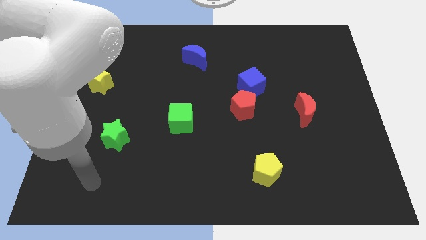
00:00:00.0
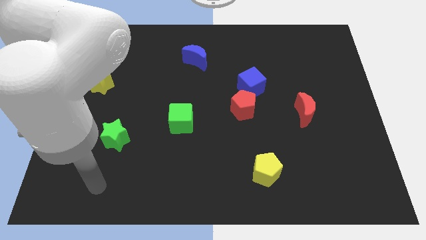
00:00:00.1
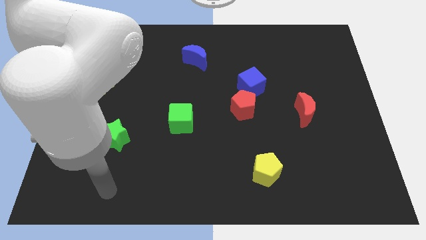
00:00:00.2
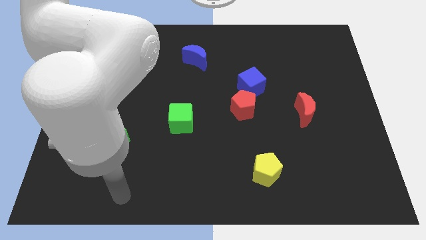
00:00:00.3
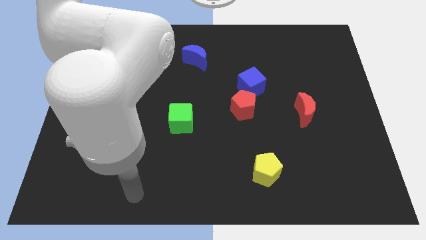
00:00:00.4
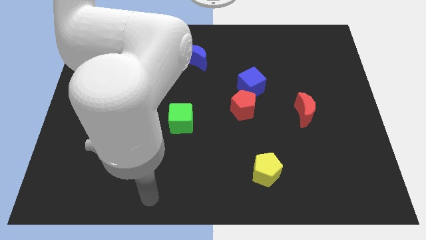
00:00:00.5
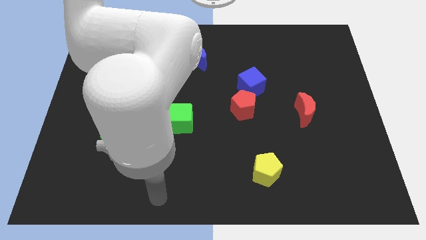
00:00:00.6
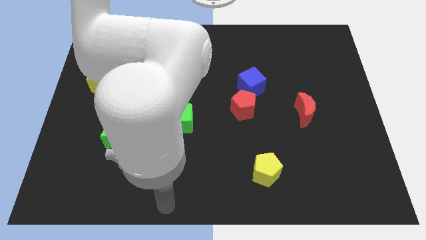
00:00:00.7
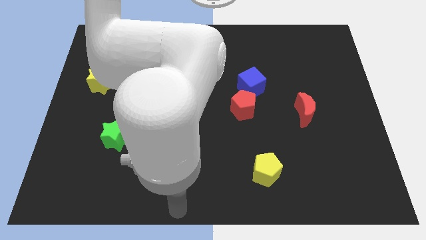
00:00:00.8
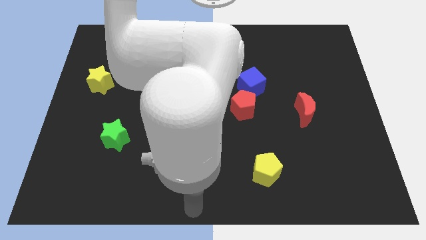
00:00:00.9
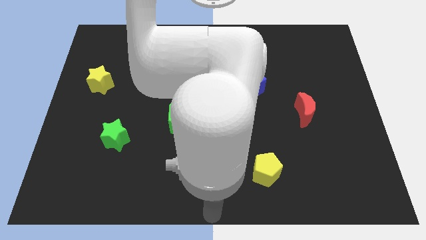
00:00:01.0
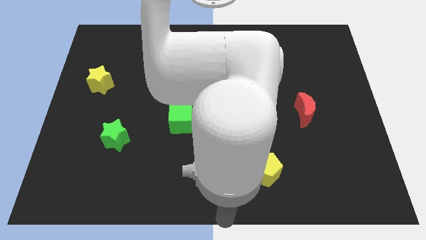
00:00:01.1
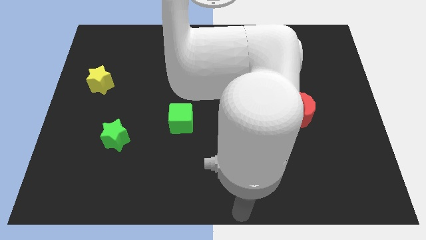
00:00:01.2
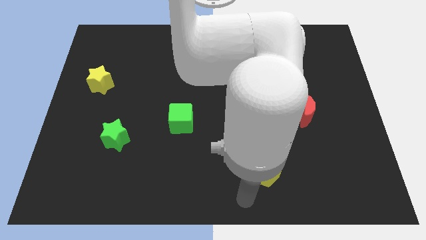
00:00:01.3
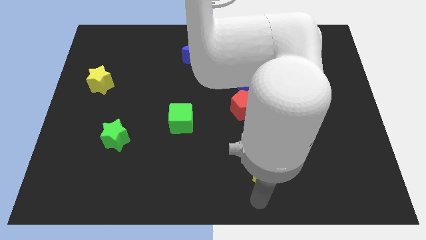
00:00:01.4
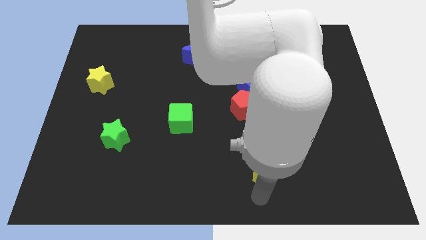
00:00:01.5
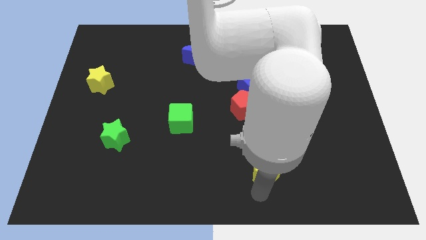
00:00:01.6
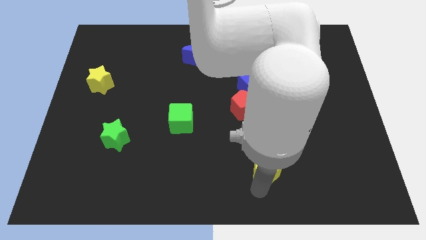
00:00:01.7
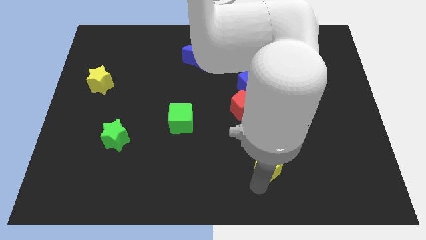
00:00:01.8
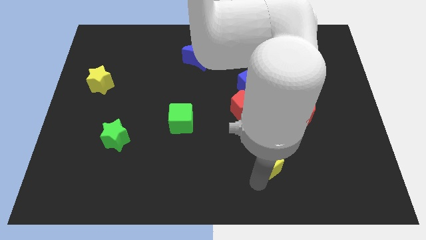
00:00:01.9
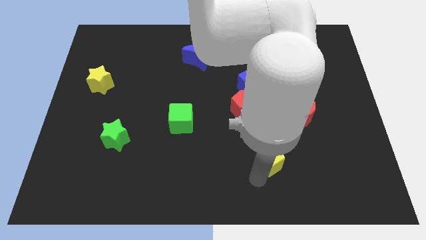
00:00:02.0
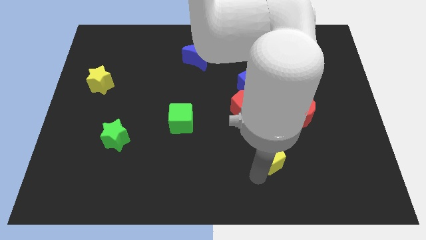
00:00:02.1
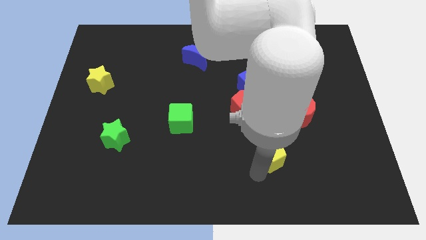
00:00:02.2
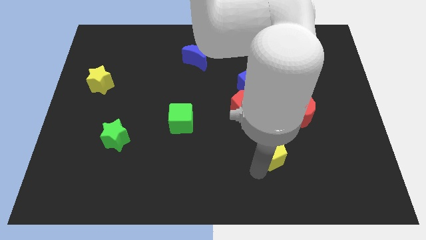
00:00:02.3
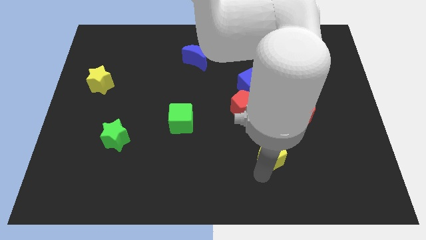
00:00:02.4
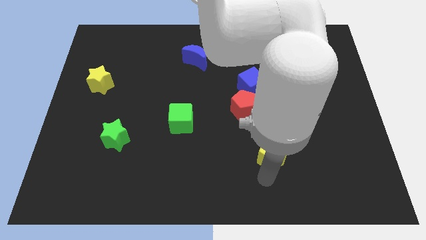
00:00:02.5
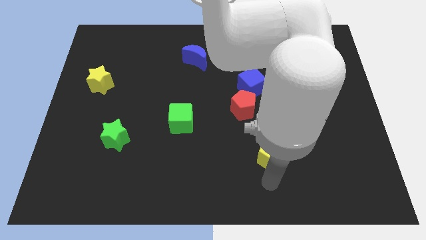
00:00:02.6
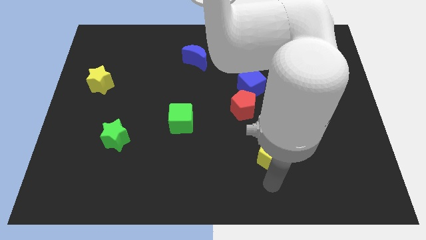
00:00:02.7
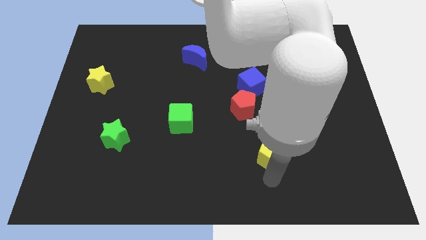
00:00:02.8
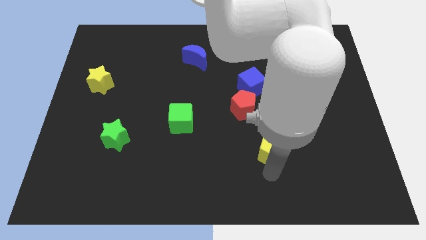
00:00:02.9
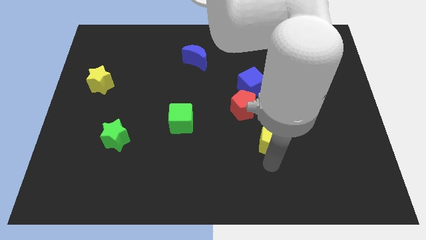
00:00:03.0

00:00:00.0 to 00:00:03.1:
push the yellow pentagon somewhat upwards

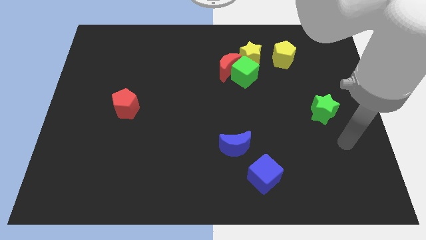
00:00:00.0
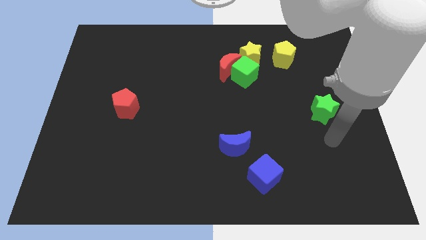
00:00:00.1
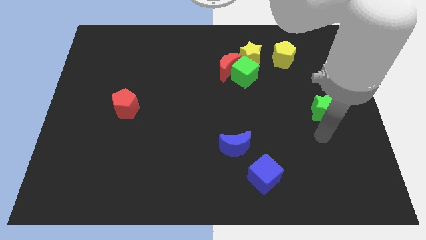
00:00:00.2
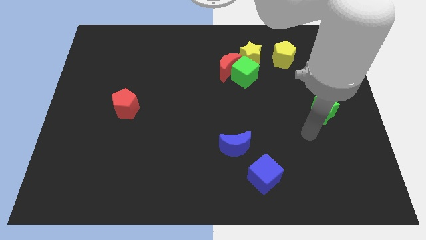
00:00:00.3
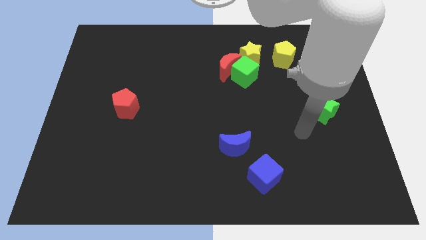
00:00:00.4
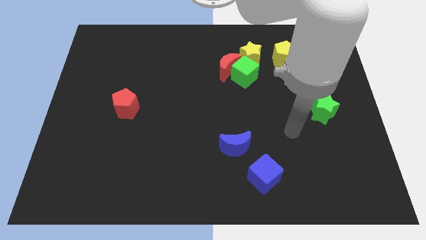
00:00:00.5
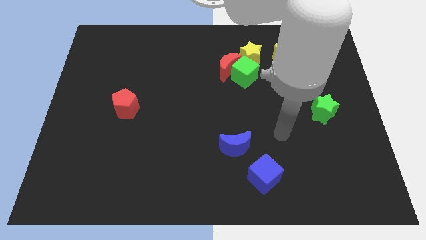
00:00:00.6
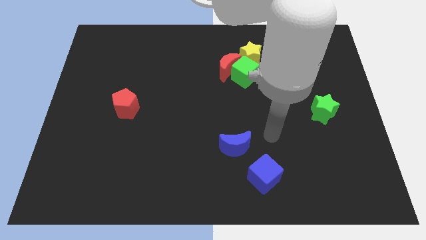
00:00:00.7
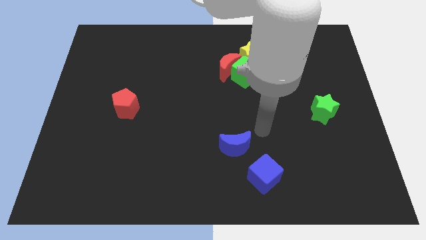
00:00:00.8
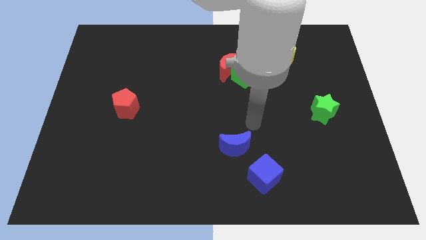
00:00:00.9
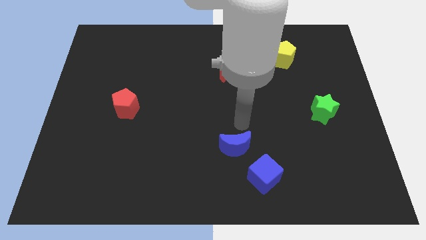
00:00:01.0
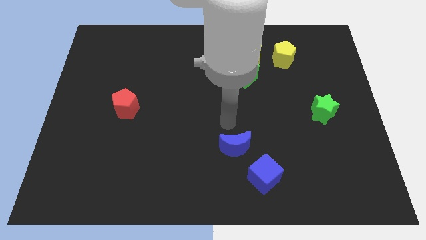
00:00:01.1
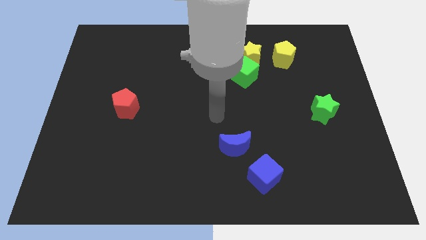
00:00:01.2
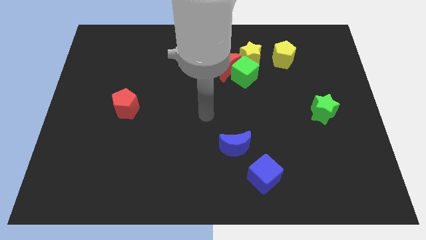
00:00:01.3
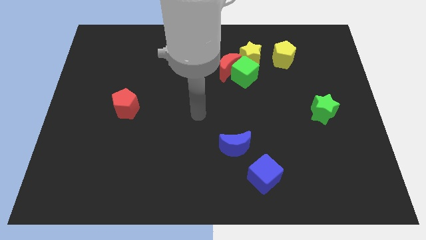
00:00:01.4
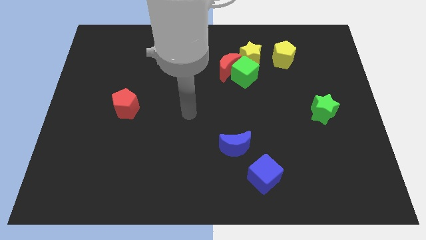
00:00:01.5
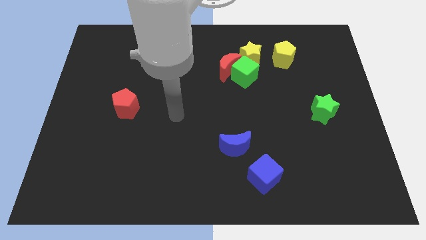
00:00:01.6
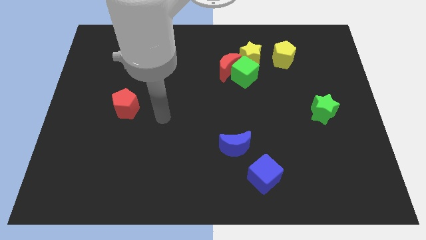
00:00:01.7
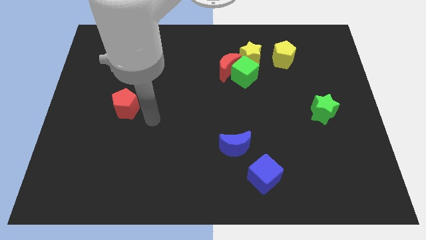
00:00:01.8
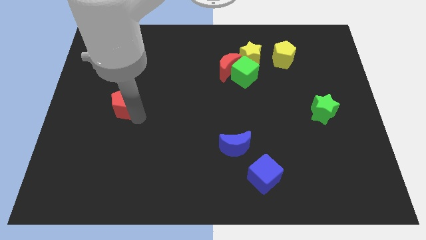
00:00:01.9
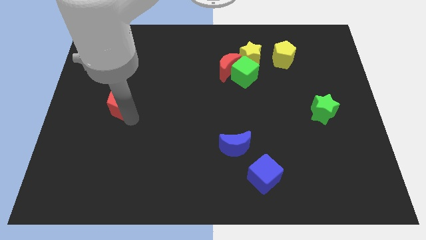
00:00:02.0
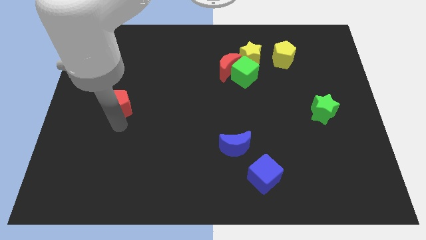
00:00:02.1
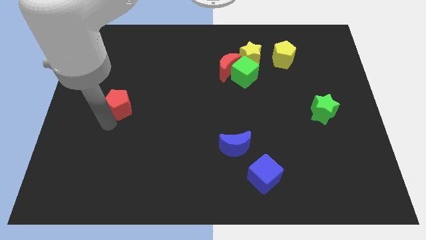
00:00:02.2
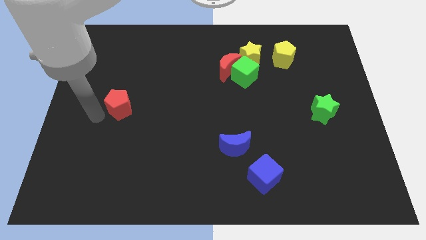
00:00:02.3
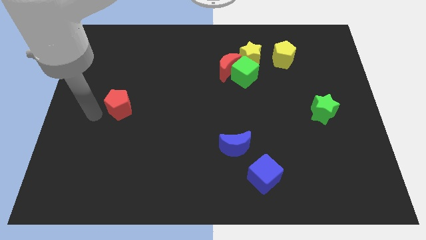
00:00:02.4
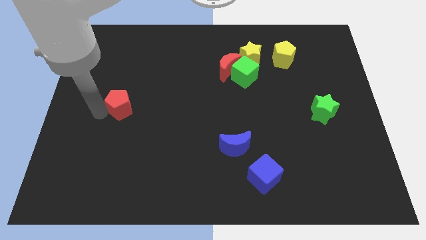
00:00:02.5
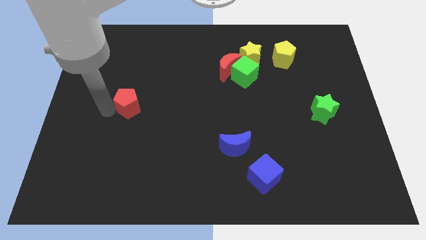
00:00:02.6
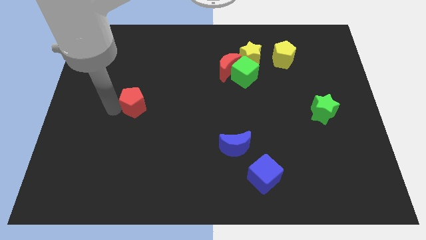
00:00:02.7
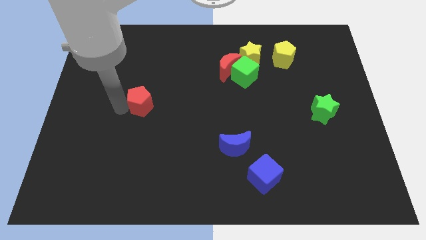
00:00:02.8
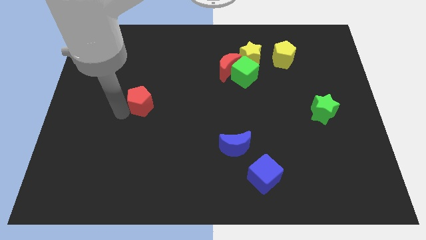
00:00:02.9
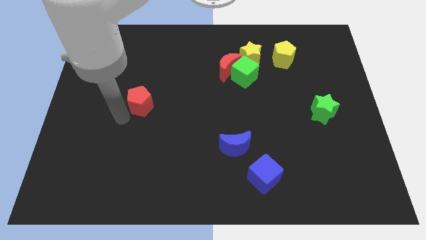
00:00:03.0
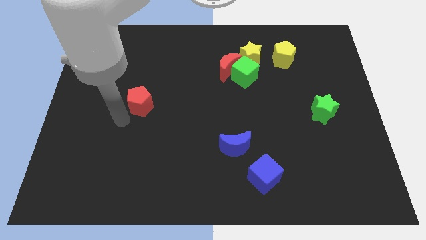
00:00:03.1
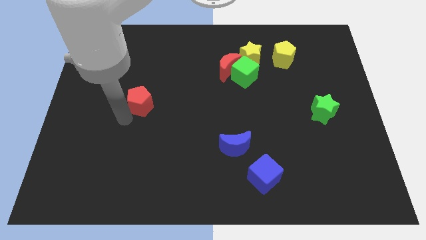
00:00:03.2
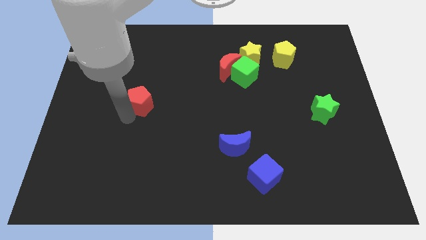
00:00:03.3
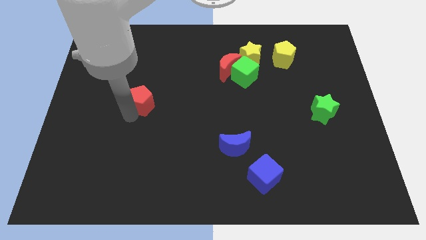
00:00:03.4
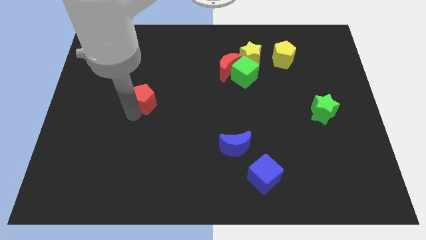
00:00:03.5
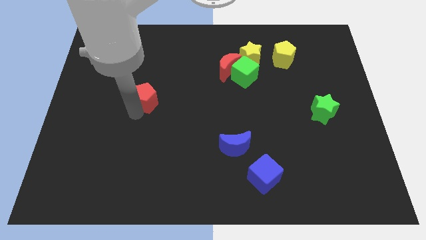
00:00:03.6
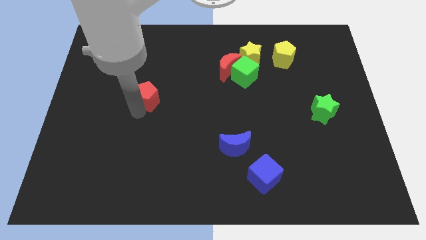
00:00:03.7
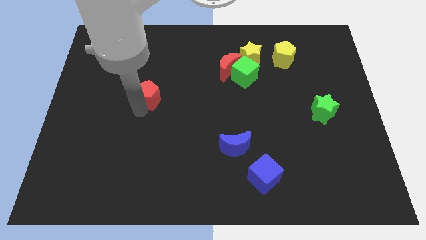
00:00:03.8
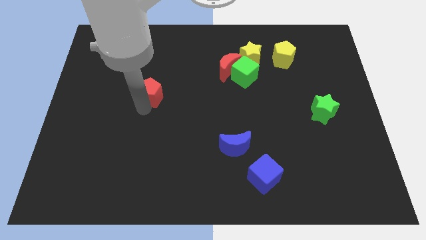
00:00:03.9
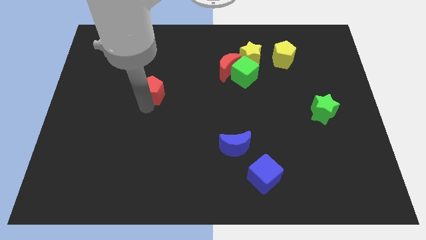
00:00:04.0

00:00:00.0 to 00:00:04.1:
push the red pentagon somewhat diagonally up and to the right

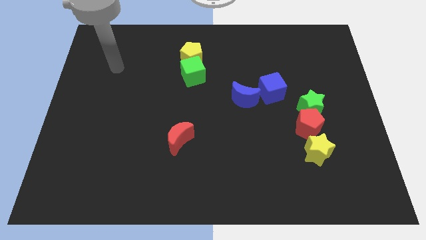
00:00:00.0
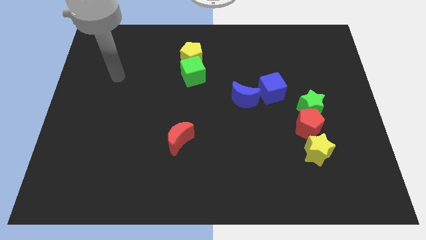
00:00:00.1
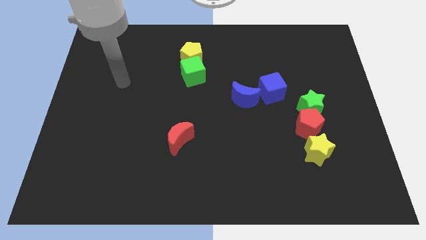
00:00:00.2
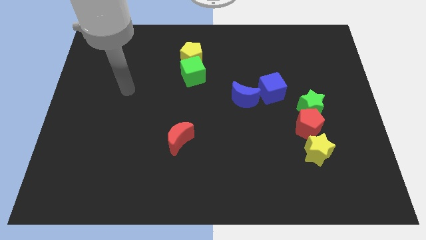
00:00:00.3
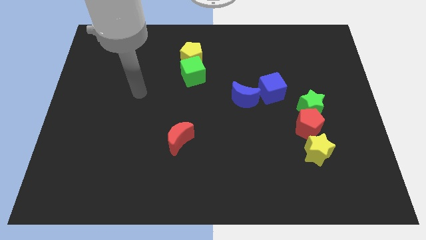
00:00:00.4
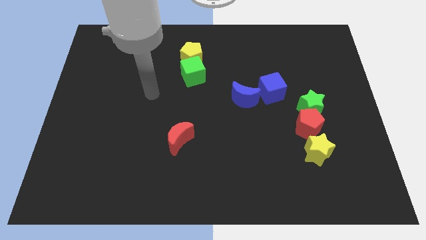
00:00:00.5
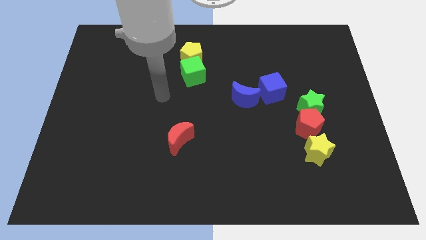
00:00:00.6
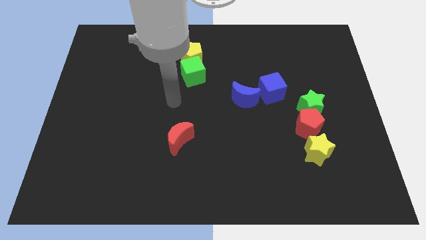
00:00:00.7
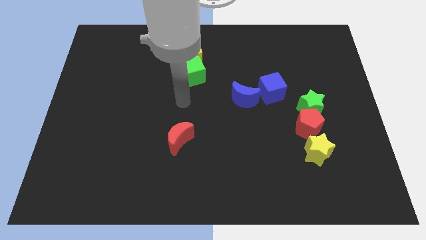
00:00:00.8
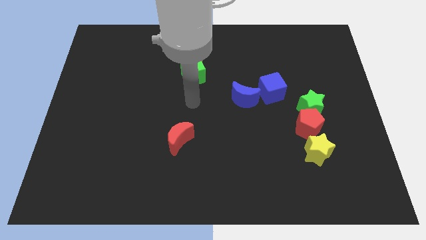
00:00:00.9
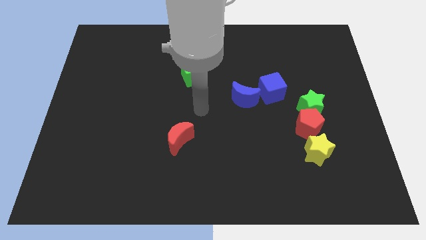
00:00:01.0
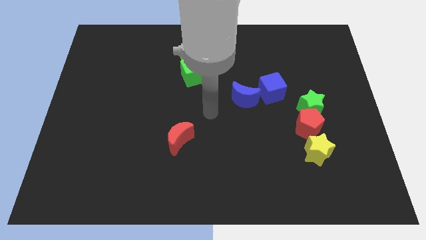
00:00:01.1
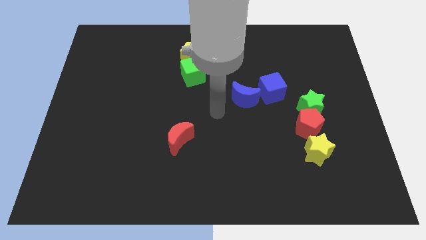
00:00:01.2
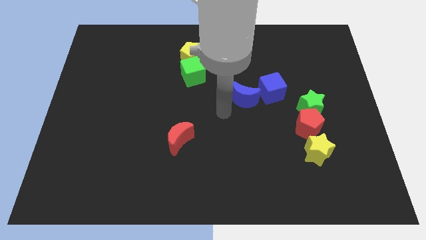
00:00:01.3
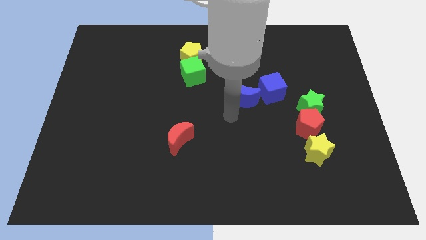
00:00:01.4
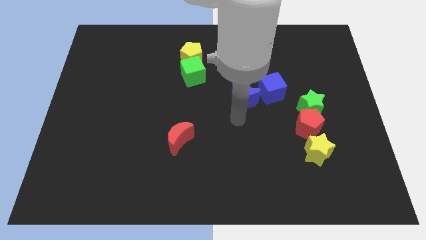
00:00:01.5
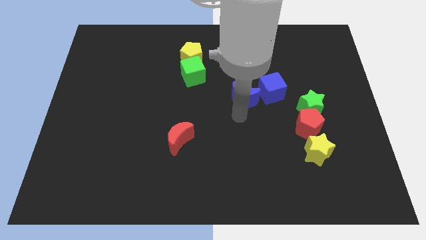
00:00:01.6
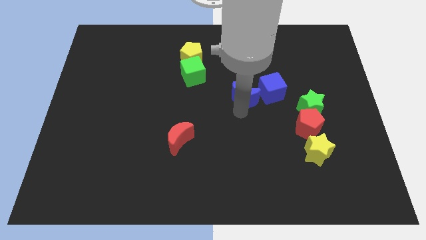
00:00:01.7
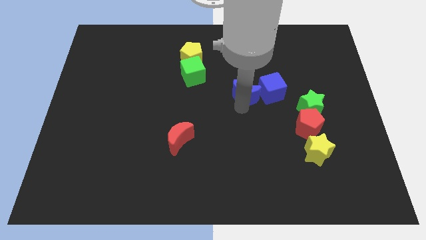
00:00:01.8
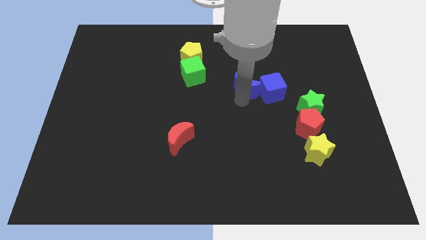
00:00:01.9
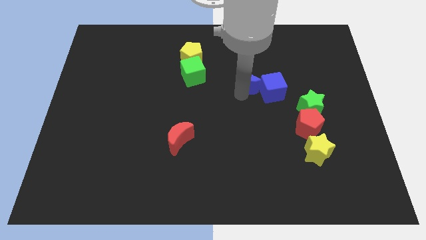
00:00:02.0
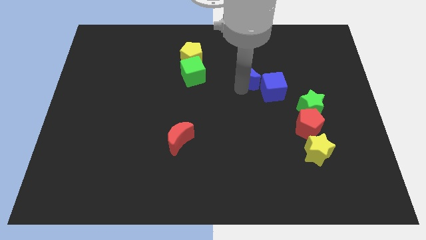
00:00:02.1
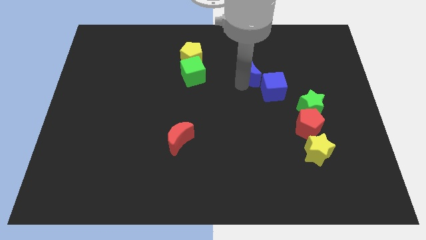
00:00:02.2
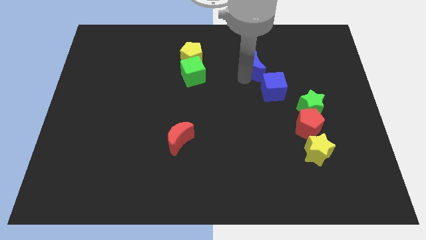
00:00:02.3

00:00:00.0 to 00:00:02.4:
slide the blue moon somewhat up and to the right diagonally
